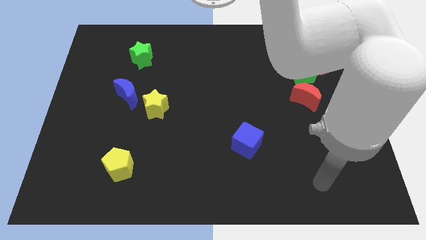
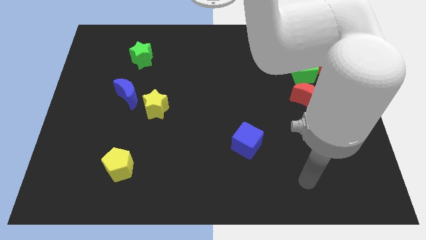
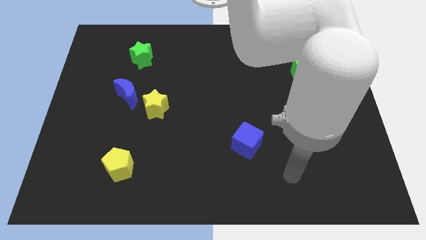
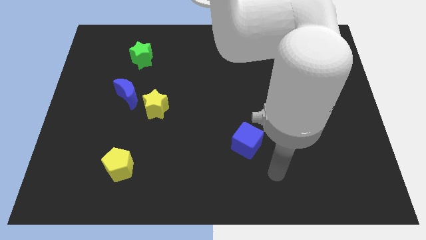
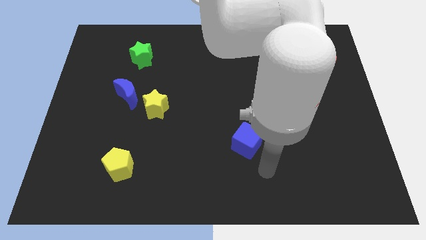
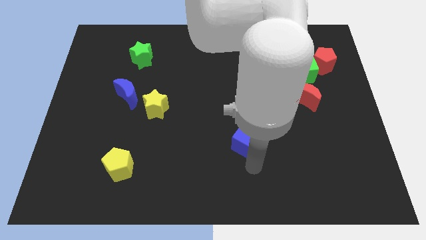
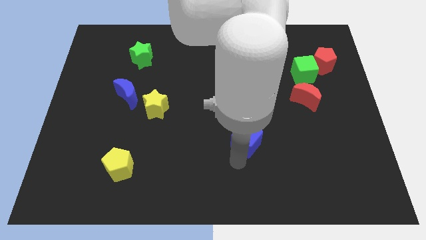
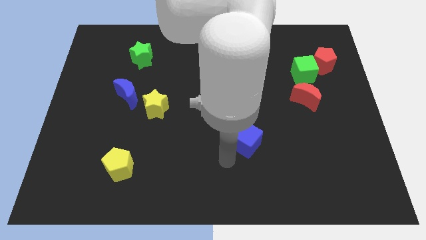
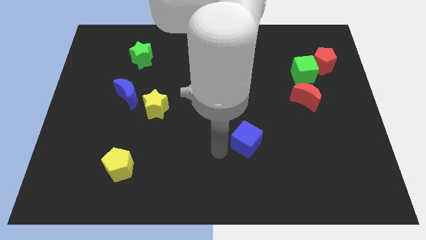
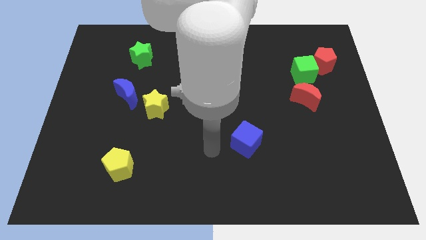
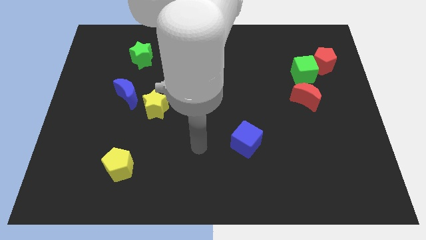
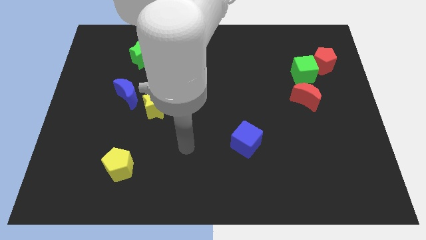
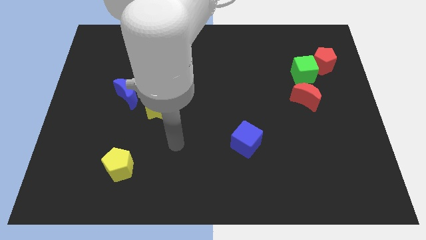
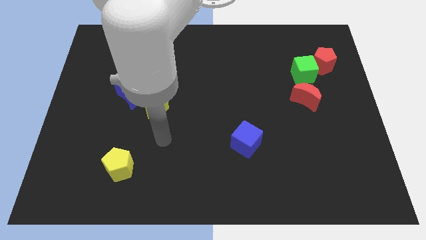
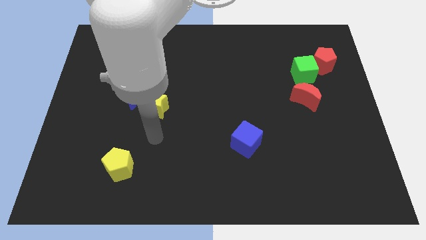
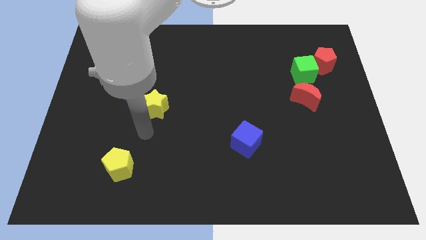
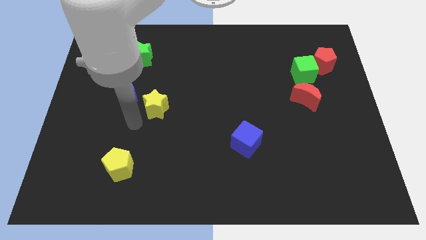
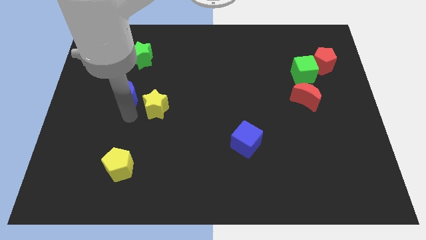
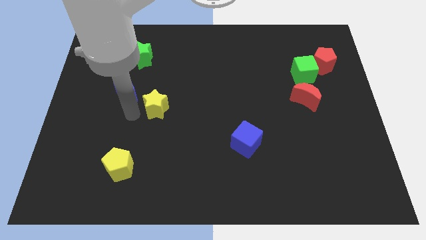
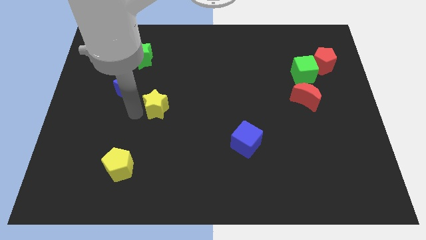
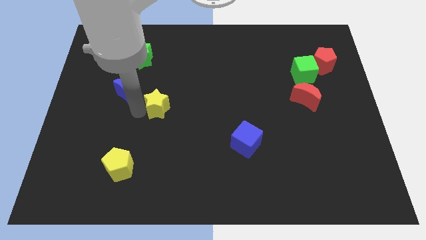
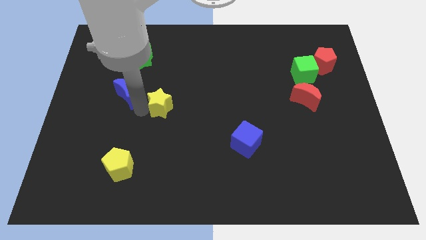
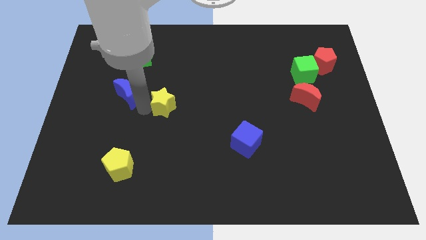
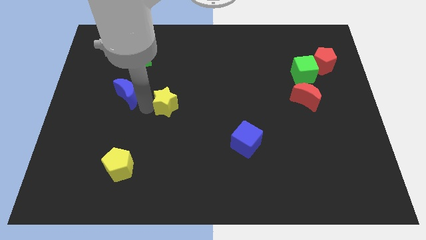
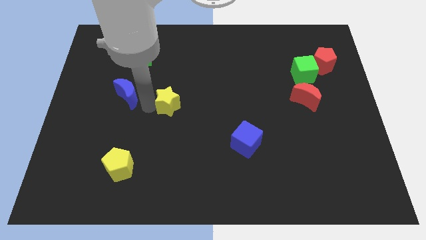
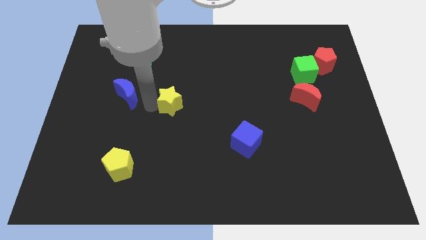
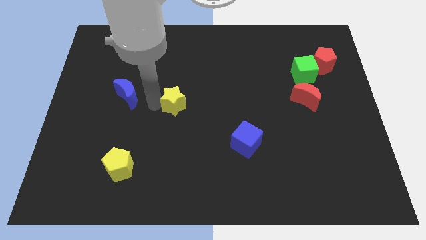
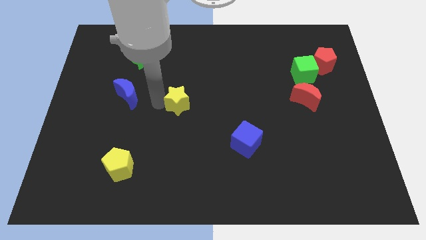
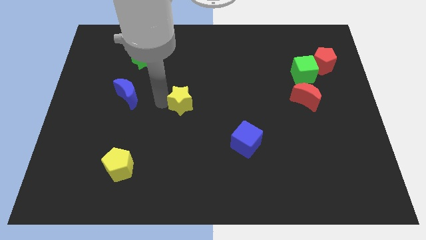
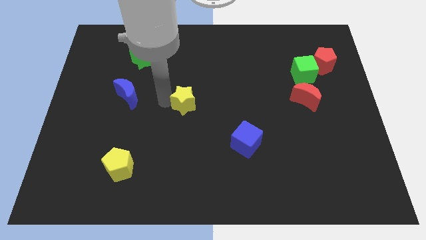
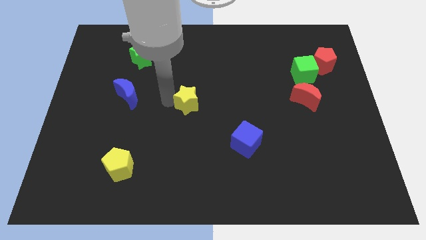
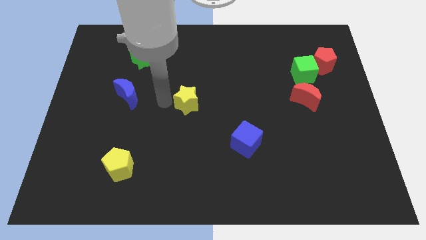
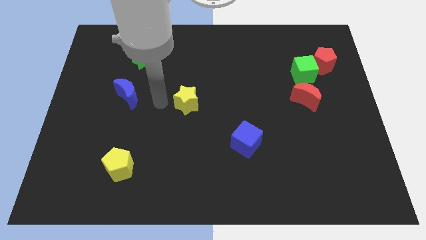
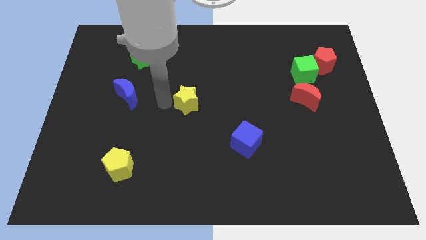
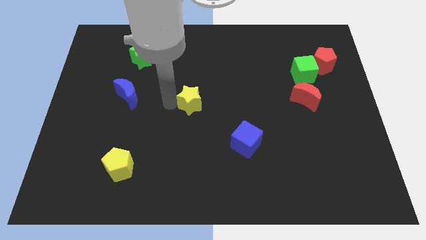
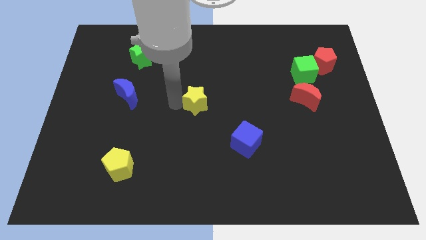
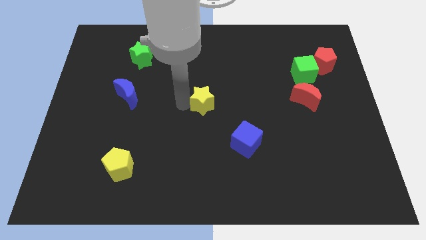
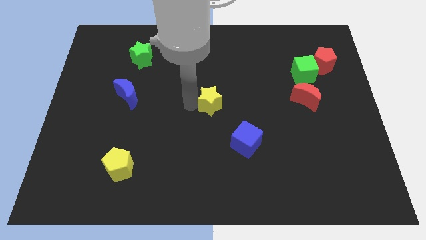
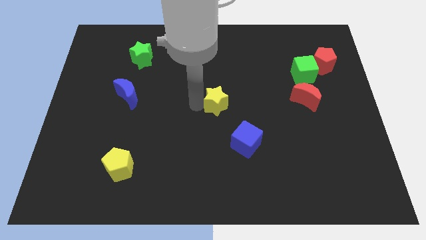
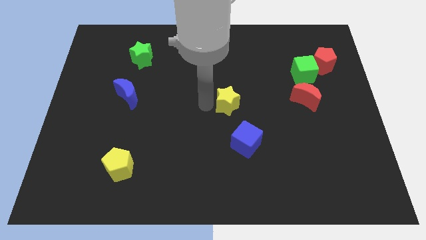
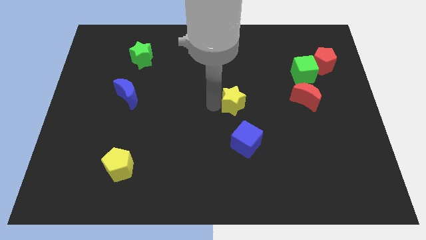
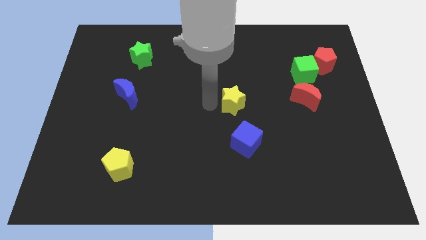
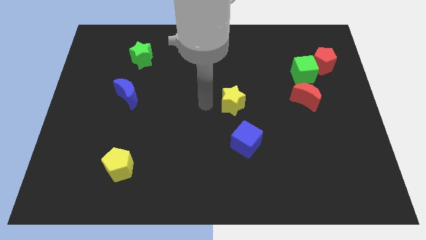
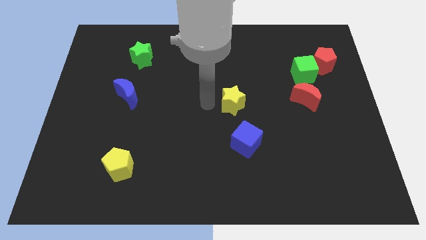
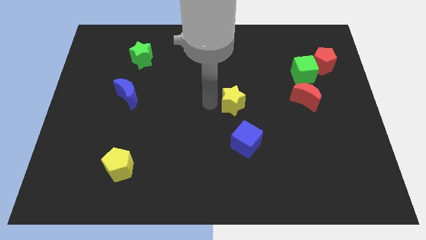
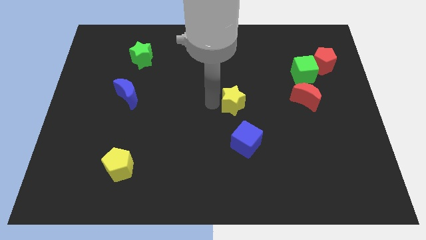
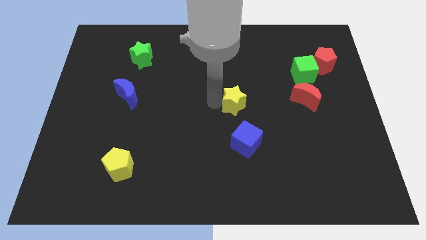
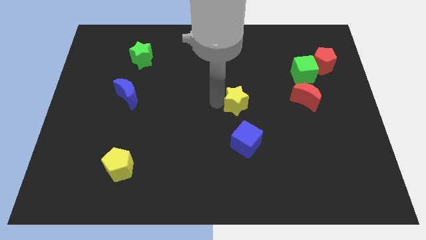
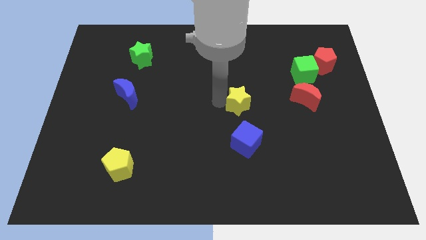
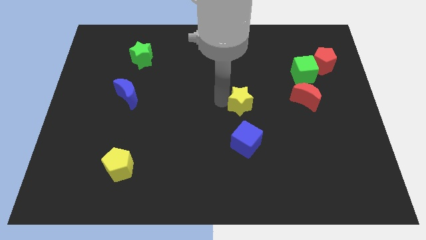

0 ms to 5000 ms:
move the yellow star to the right

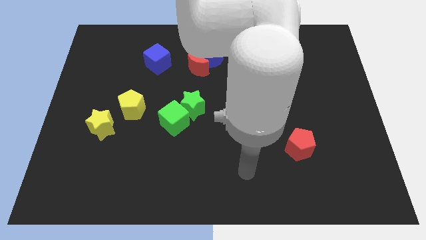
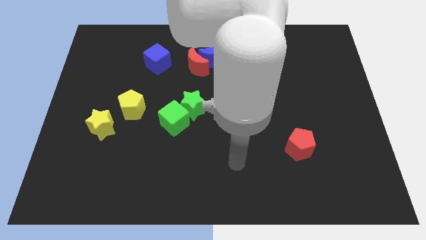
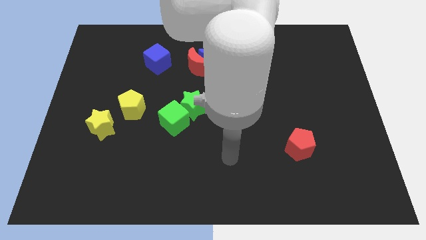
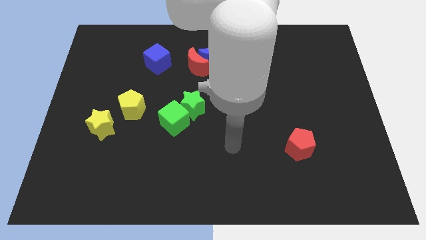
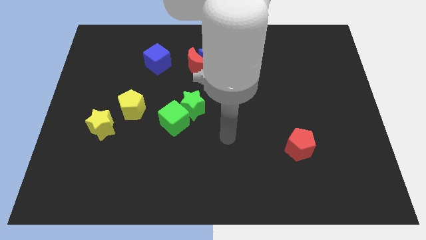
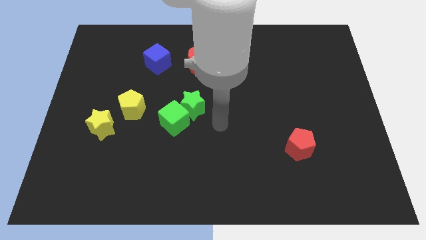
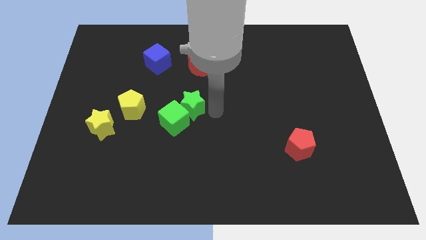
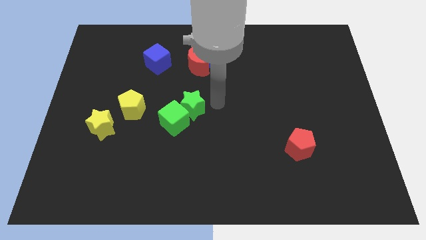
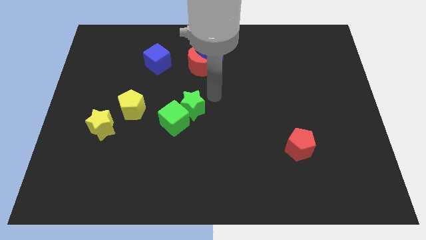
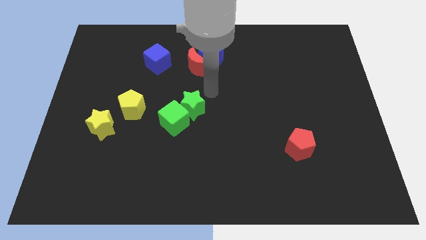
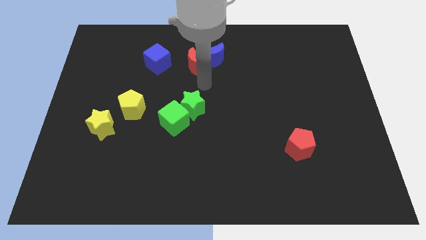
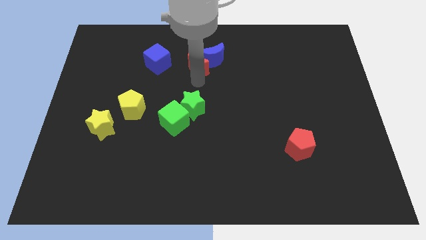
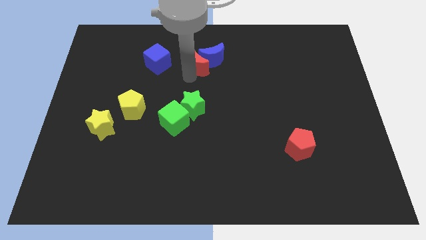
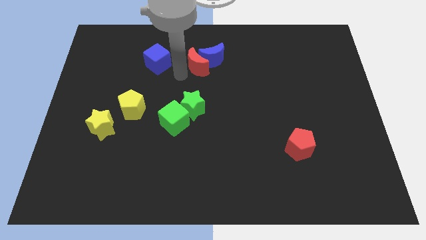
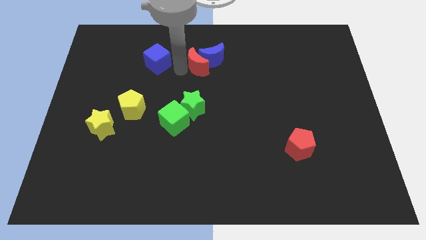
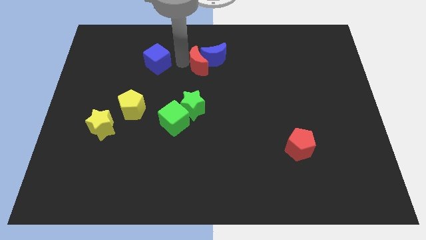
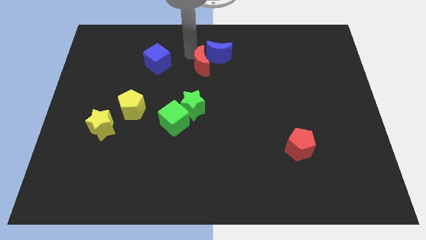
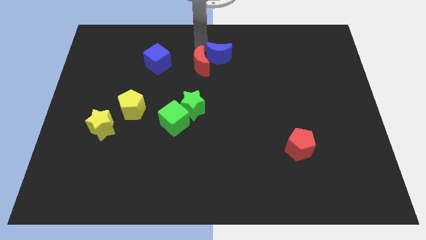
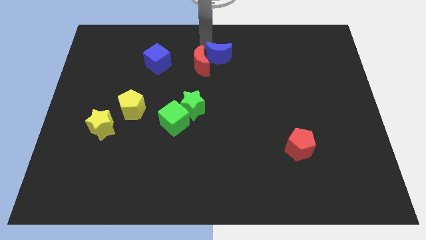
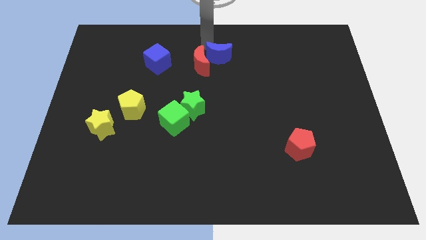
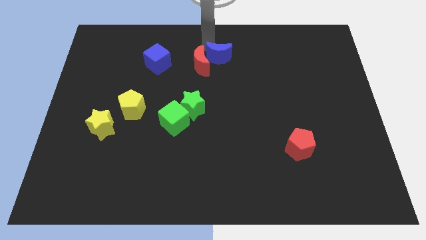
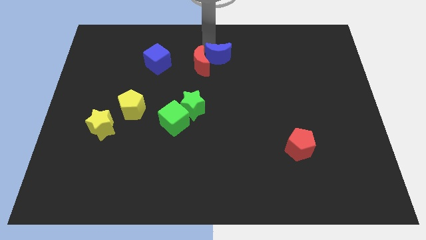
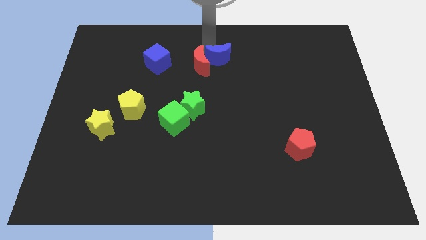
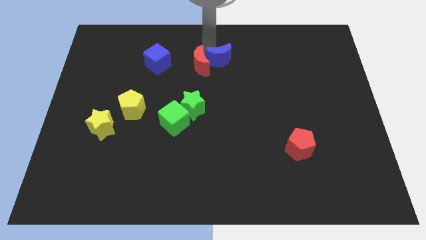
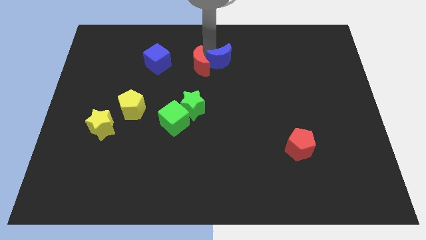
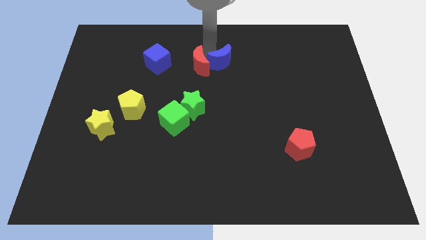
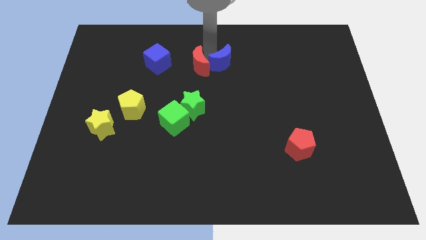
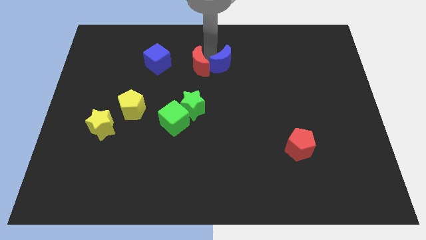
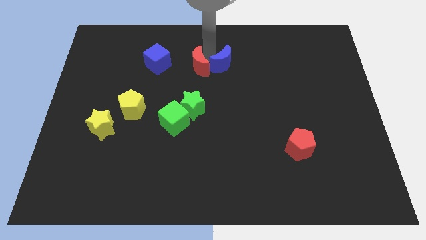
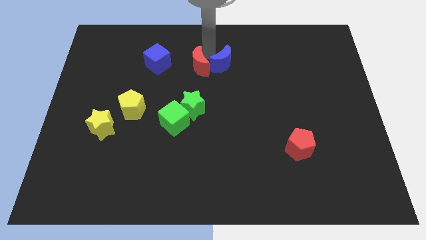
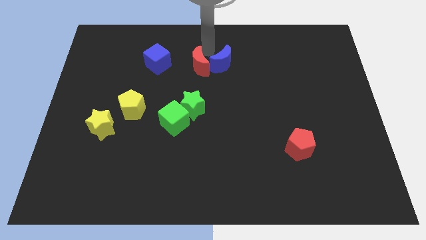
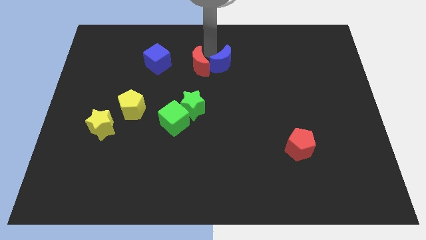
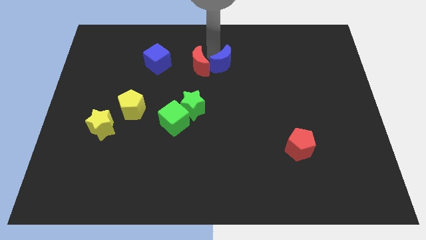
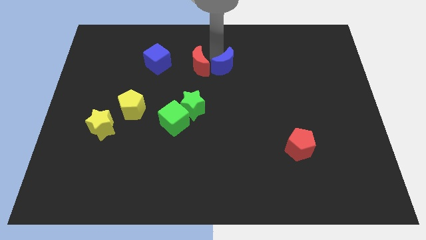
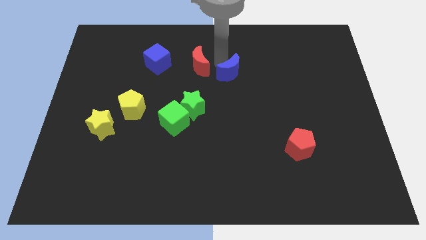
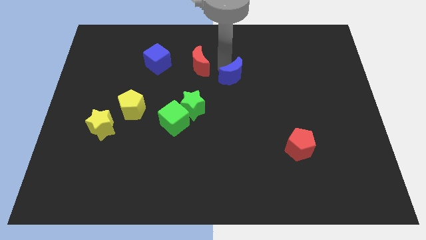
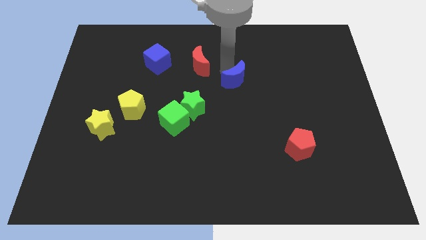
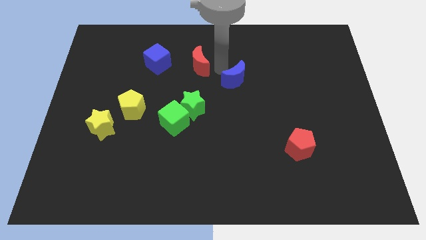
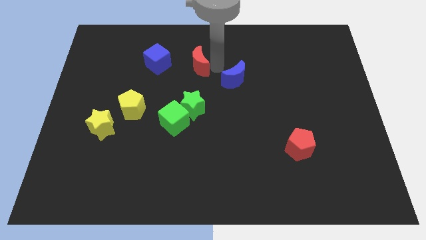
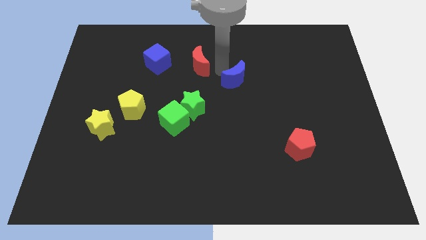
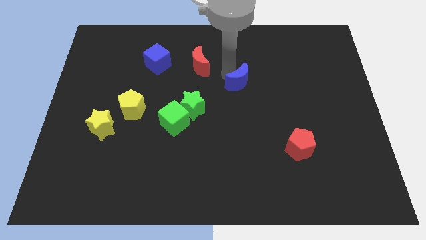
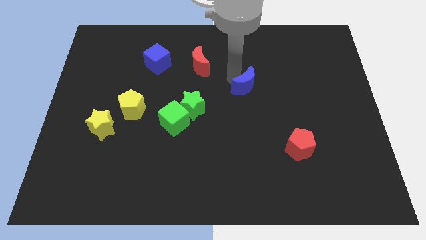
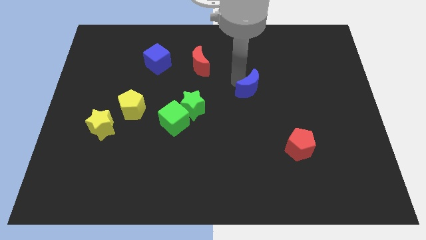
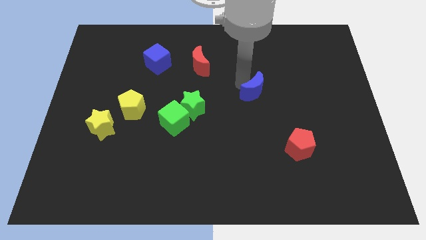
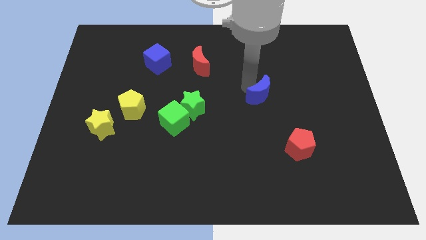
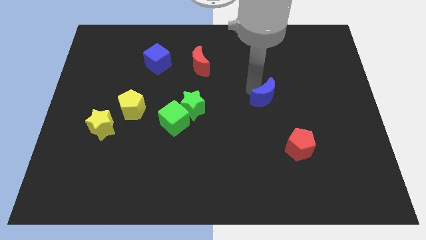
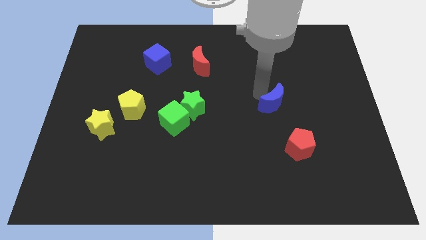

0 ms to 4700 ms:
push the blue moon down and to the right
